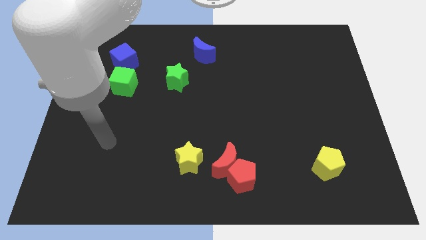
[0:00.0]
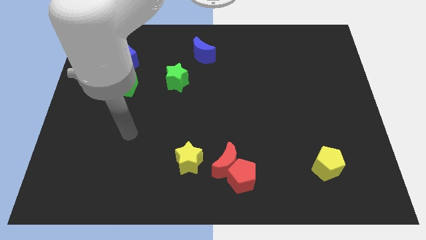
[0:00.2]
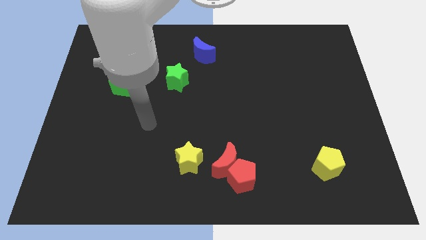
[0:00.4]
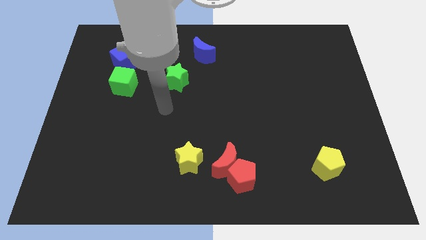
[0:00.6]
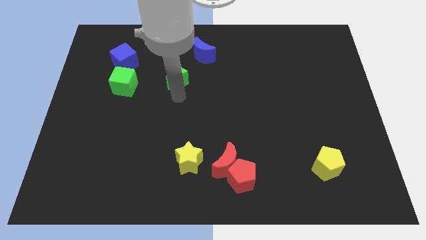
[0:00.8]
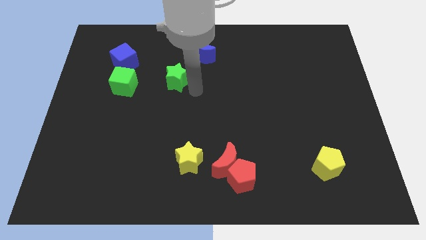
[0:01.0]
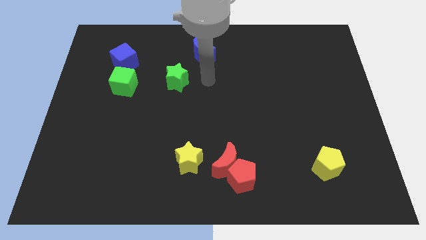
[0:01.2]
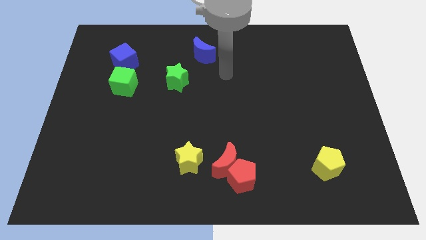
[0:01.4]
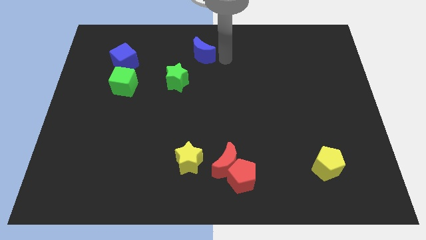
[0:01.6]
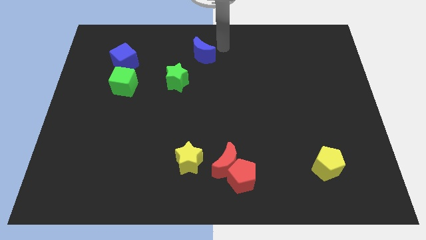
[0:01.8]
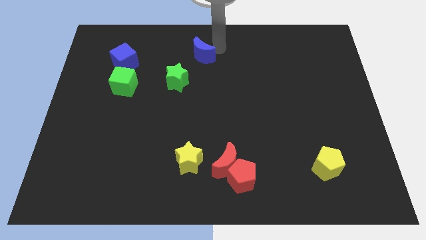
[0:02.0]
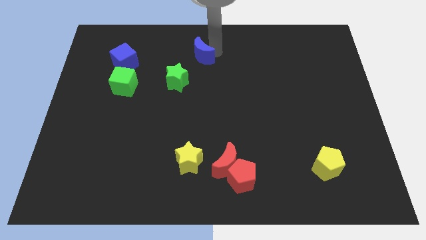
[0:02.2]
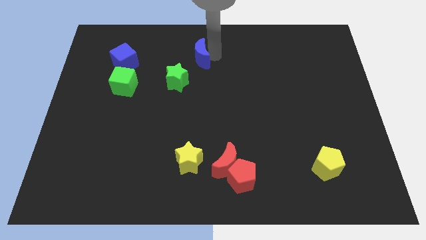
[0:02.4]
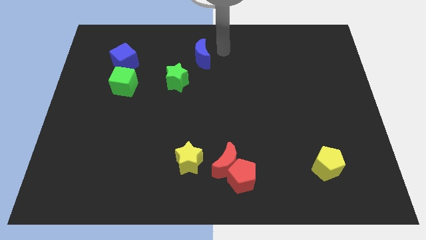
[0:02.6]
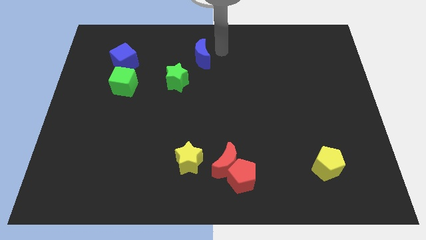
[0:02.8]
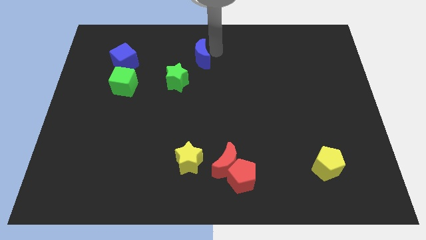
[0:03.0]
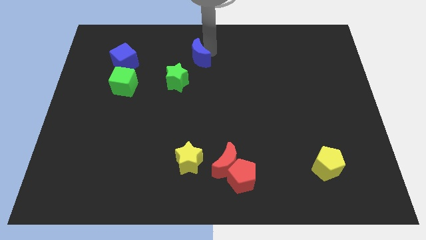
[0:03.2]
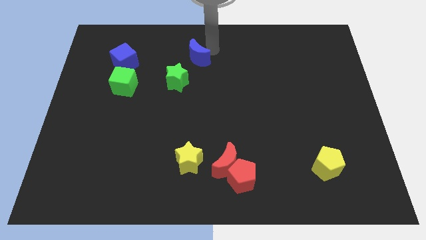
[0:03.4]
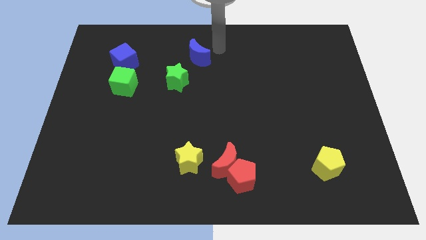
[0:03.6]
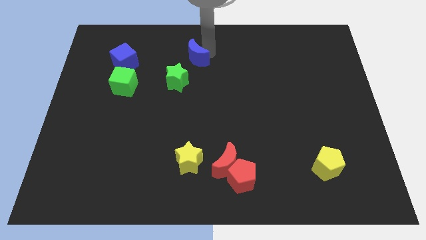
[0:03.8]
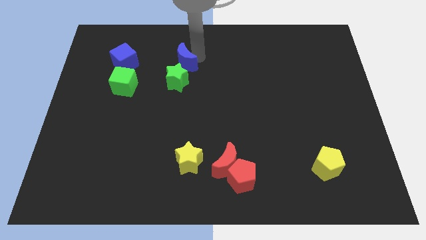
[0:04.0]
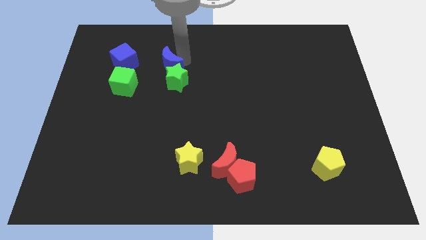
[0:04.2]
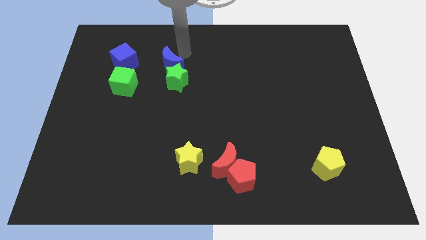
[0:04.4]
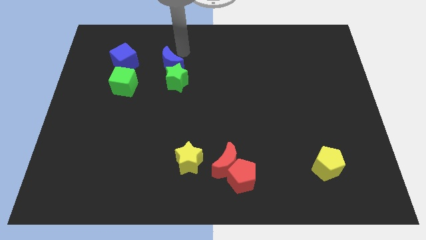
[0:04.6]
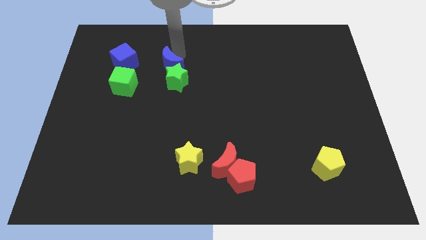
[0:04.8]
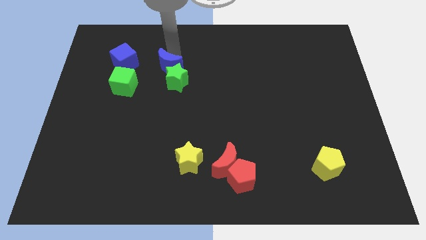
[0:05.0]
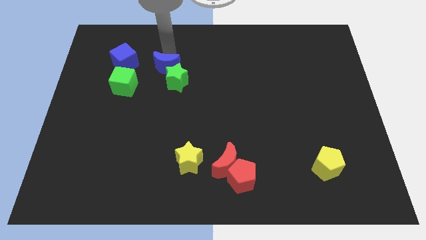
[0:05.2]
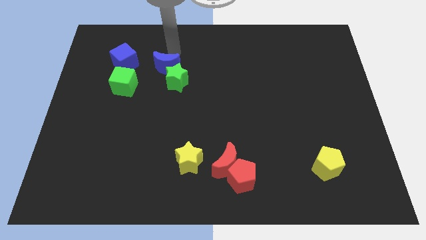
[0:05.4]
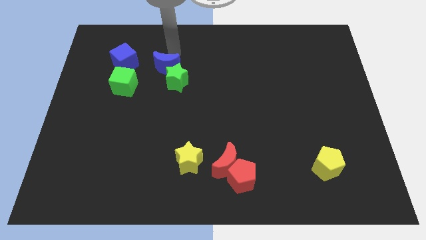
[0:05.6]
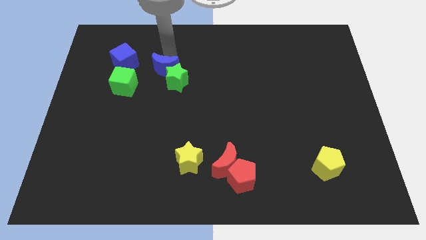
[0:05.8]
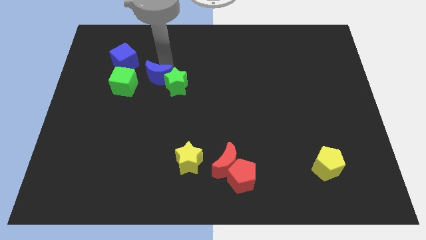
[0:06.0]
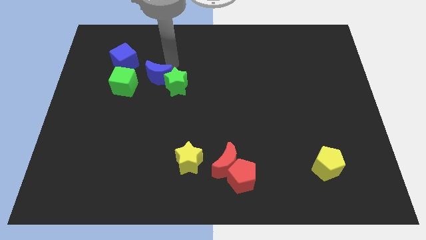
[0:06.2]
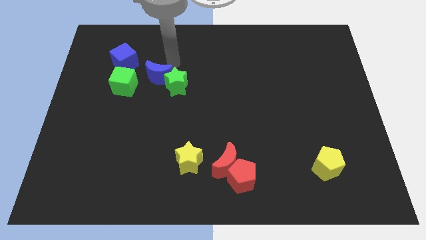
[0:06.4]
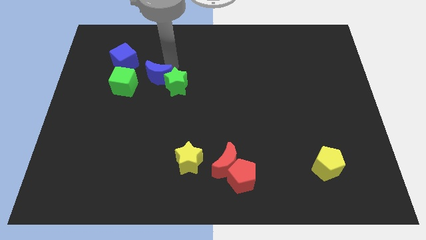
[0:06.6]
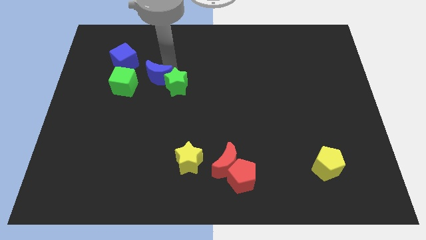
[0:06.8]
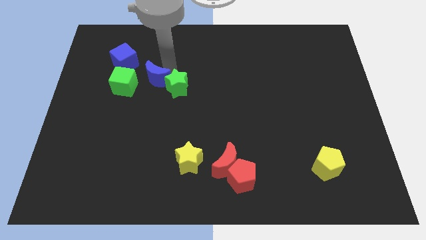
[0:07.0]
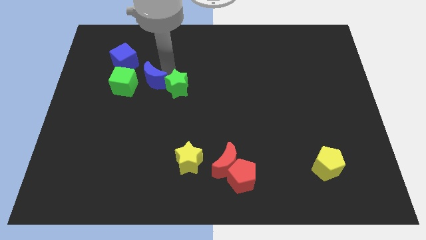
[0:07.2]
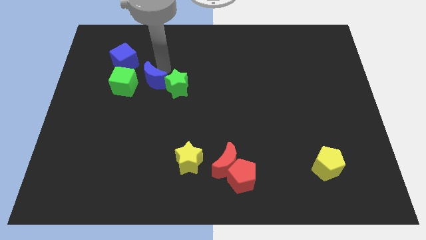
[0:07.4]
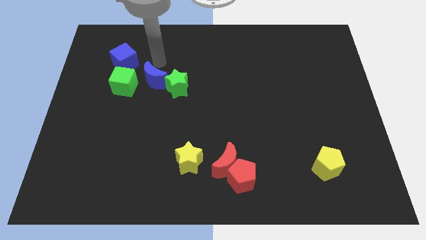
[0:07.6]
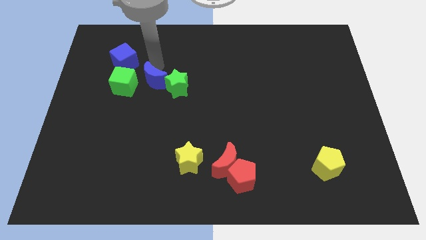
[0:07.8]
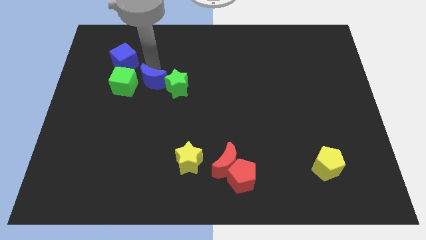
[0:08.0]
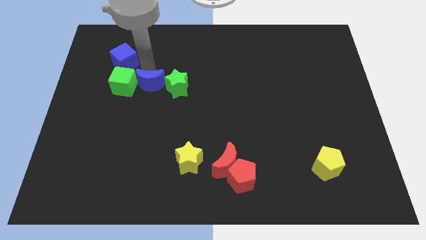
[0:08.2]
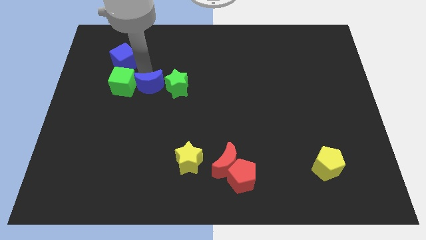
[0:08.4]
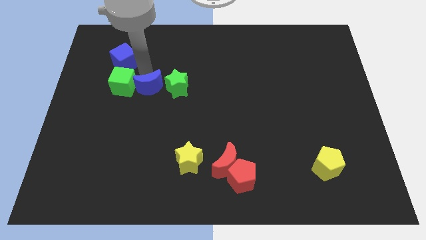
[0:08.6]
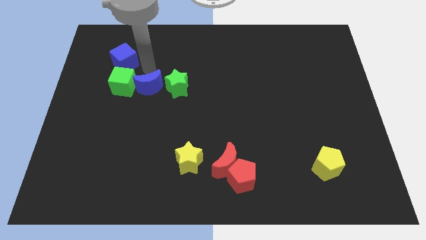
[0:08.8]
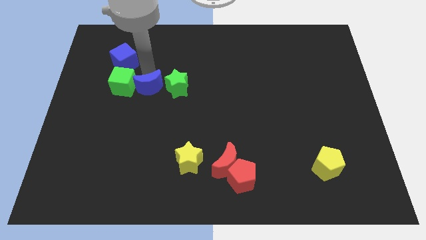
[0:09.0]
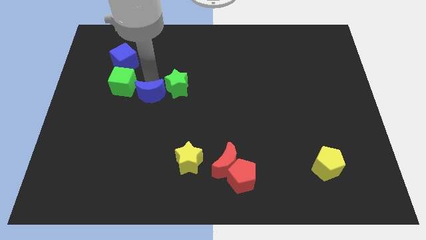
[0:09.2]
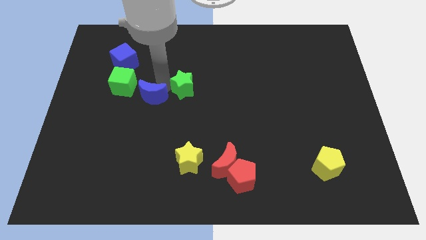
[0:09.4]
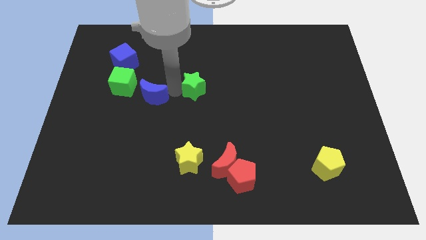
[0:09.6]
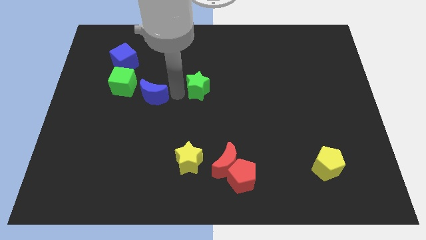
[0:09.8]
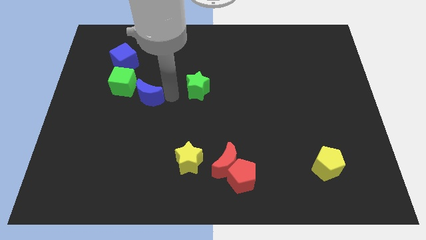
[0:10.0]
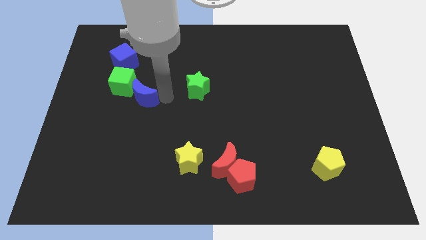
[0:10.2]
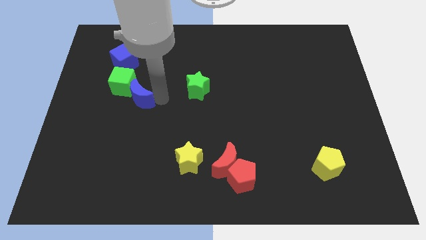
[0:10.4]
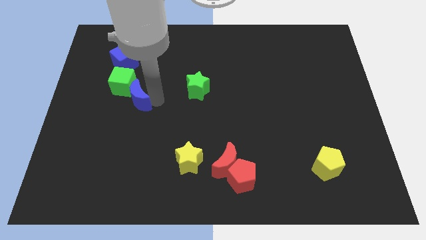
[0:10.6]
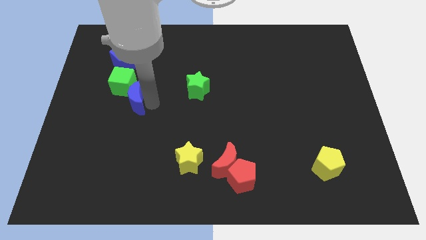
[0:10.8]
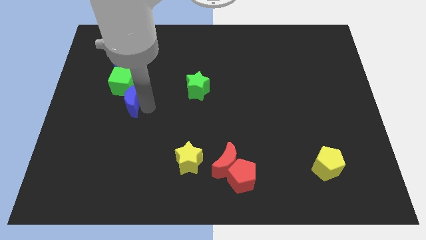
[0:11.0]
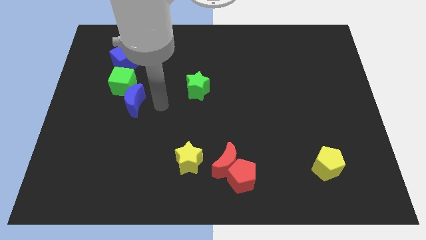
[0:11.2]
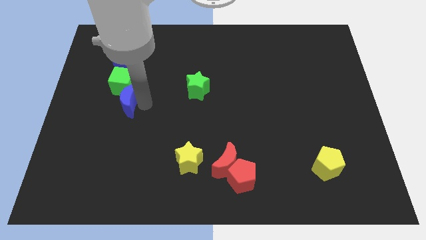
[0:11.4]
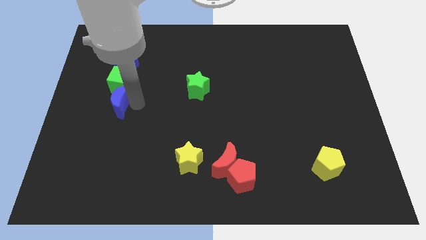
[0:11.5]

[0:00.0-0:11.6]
put the blue moon diagonally down and to the left of the green cube

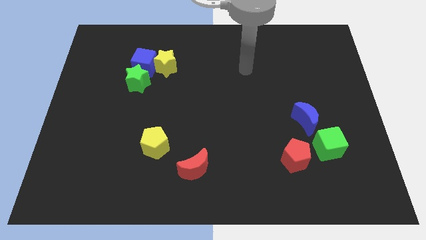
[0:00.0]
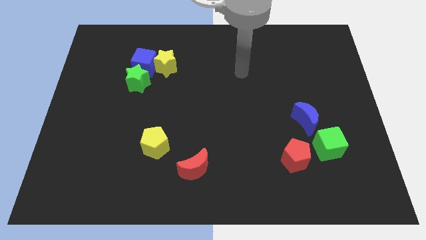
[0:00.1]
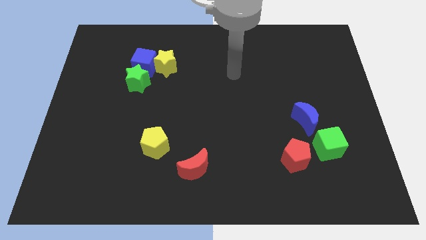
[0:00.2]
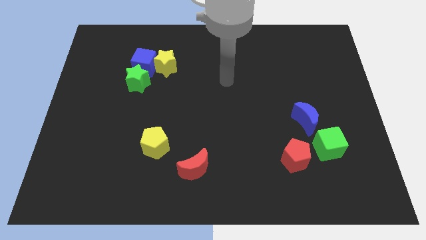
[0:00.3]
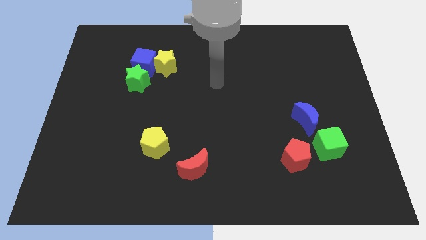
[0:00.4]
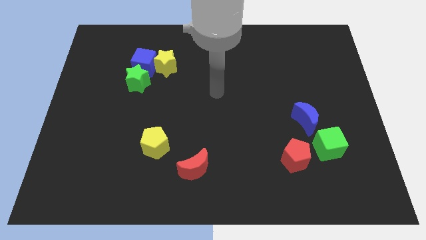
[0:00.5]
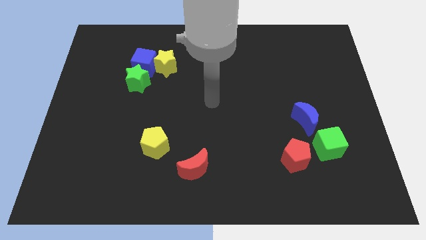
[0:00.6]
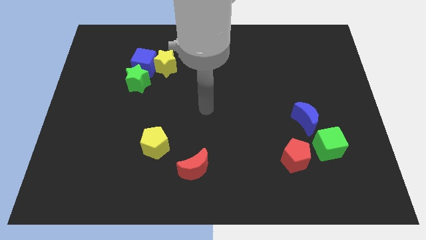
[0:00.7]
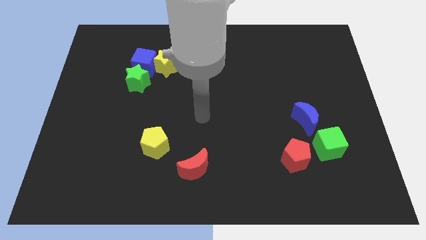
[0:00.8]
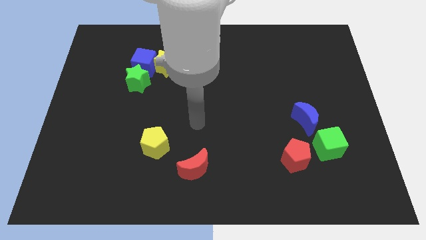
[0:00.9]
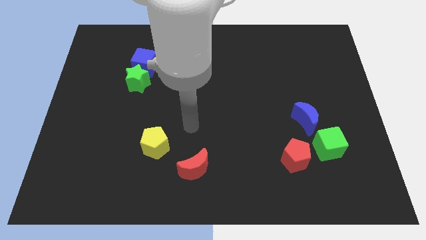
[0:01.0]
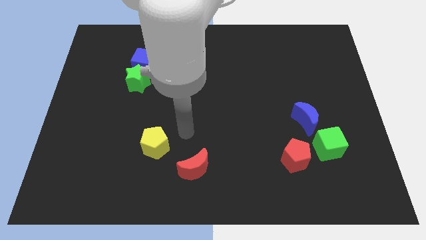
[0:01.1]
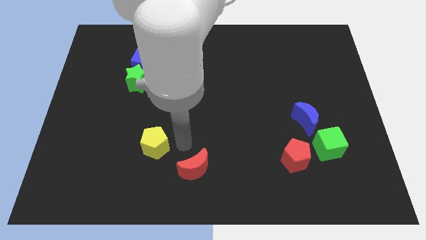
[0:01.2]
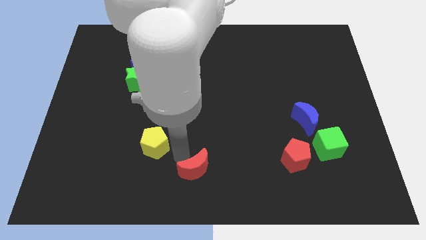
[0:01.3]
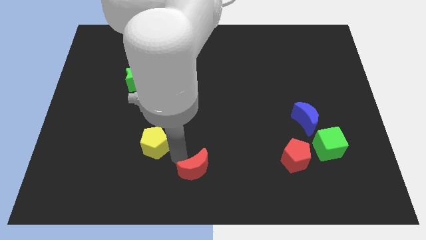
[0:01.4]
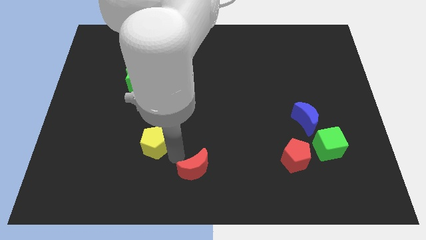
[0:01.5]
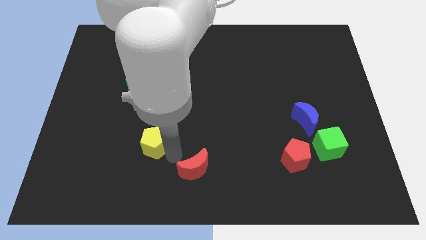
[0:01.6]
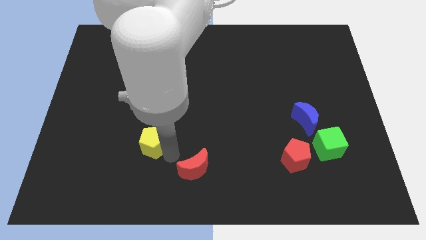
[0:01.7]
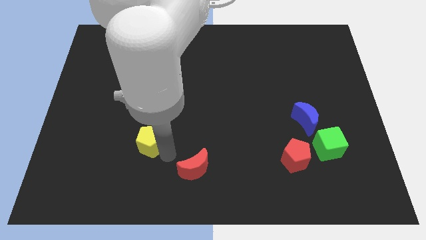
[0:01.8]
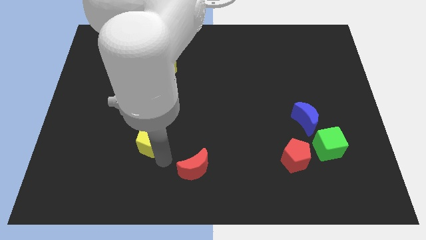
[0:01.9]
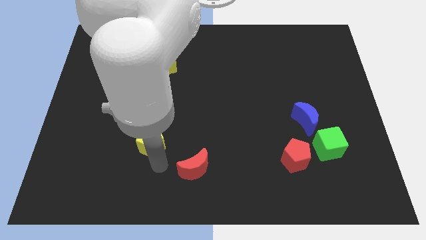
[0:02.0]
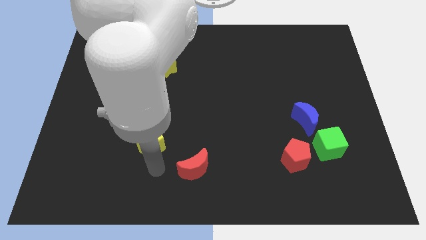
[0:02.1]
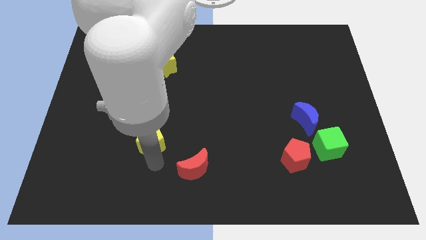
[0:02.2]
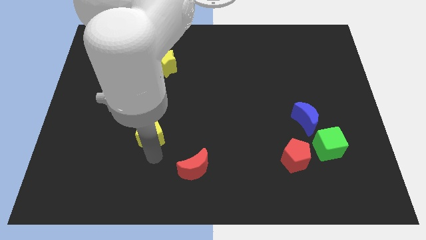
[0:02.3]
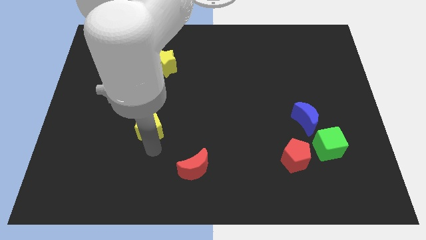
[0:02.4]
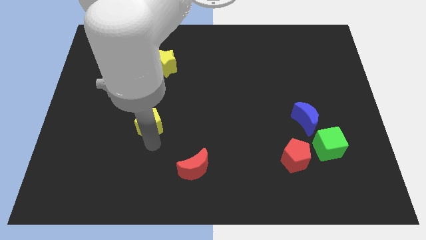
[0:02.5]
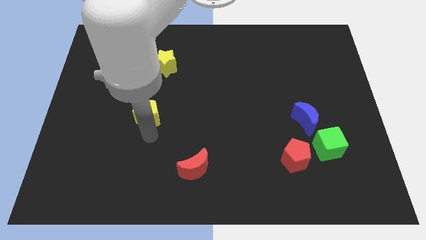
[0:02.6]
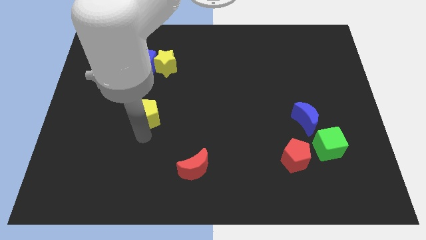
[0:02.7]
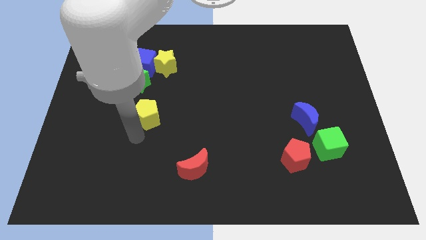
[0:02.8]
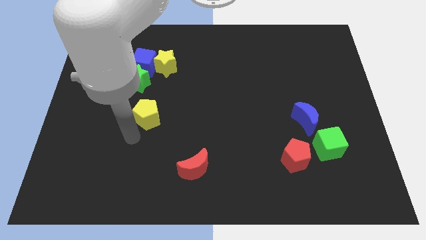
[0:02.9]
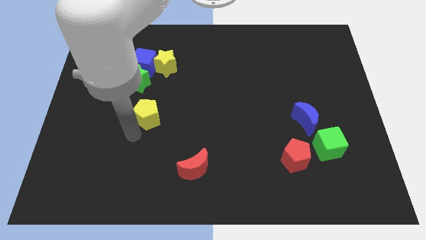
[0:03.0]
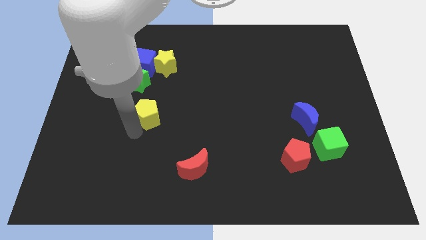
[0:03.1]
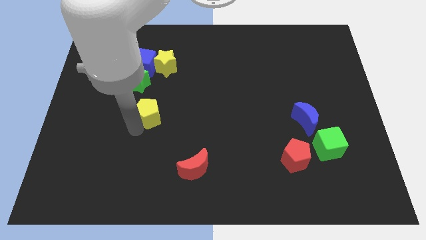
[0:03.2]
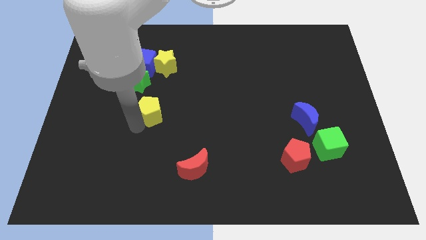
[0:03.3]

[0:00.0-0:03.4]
move the yellow pentagon below the yellow star
